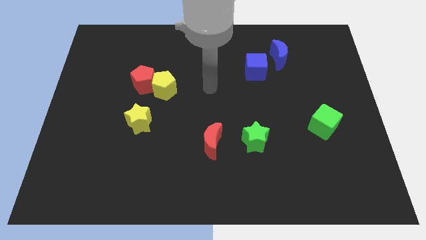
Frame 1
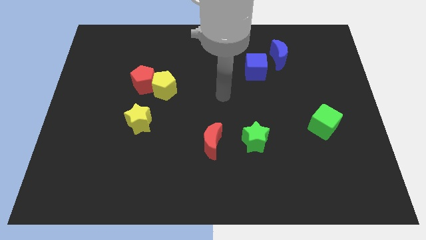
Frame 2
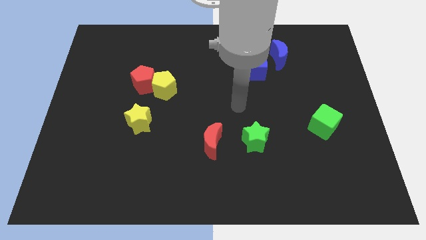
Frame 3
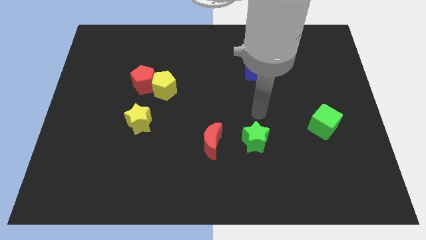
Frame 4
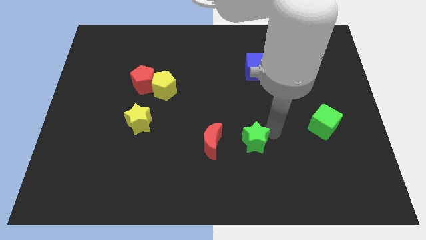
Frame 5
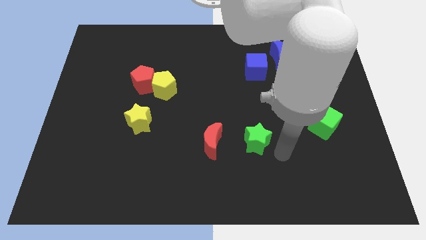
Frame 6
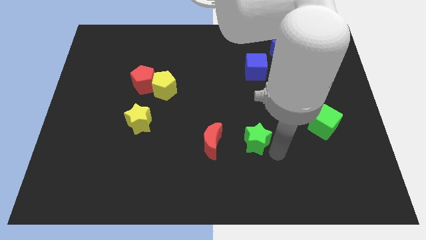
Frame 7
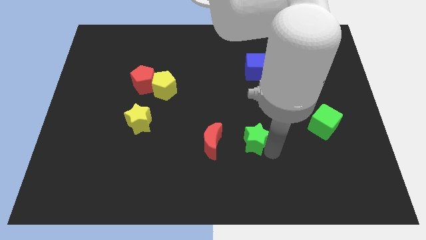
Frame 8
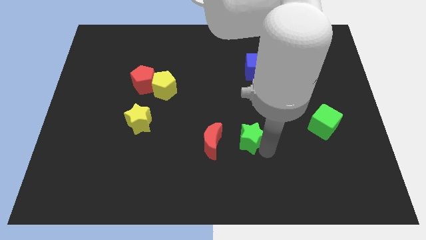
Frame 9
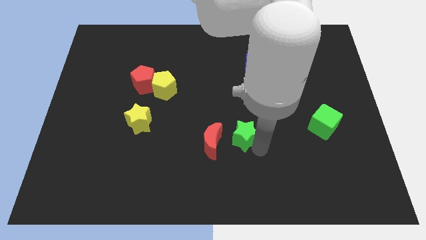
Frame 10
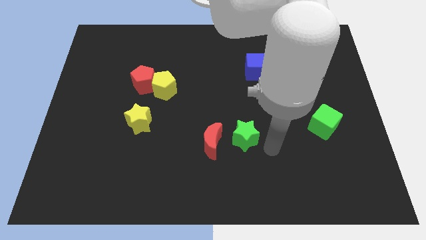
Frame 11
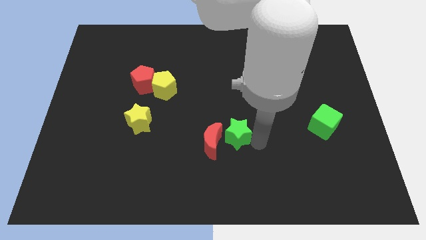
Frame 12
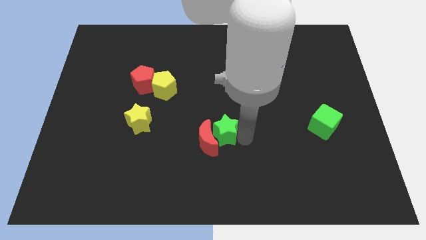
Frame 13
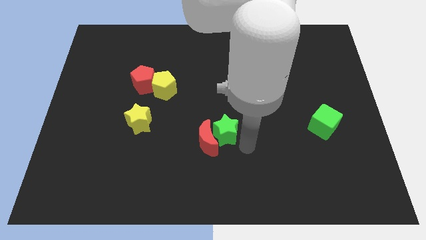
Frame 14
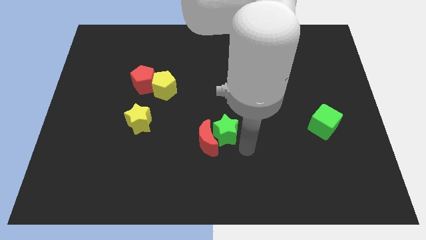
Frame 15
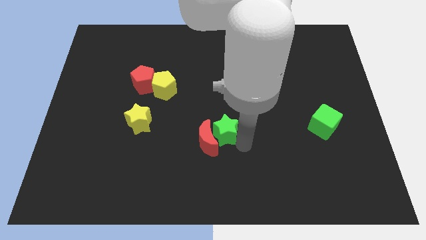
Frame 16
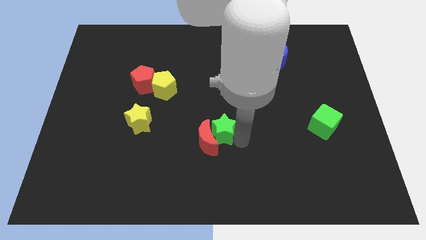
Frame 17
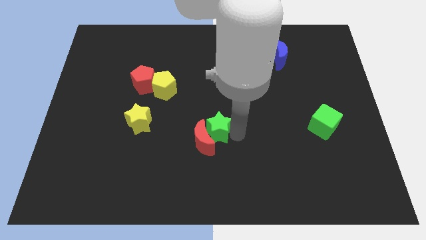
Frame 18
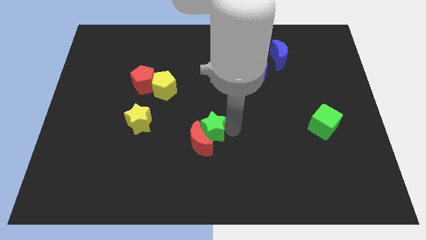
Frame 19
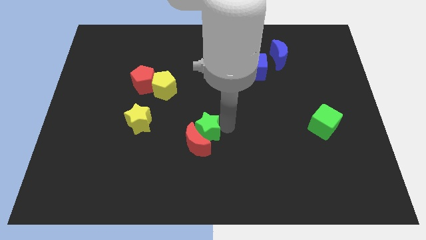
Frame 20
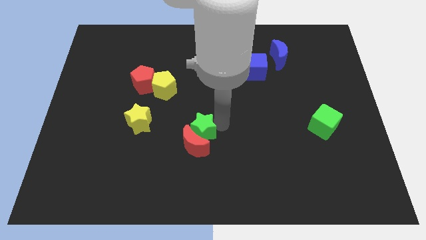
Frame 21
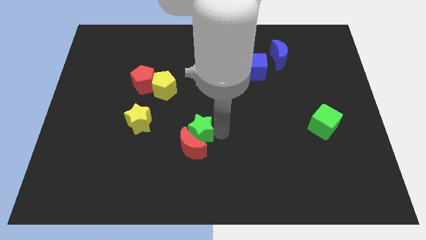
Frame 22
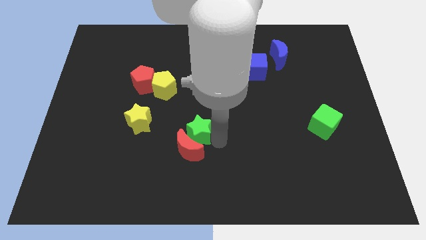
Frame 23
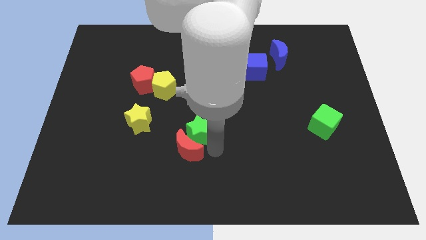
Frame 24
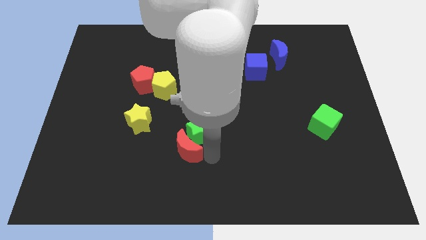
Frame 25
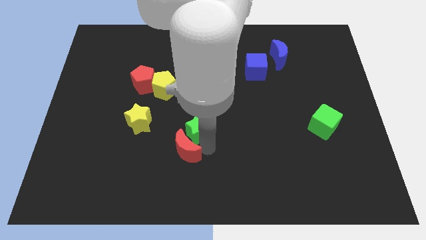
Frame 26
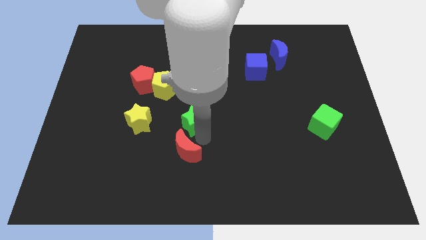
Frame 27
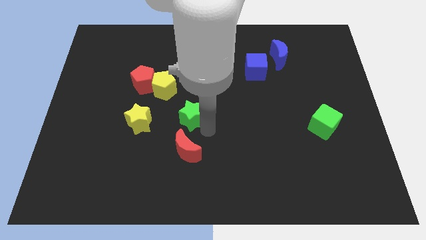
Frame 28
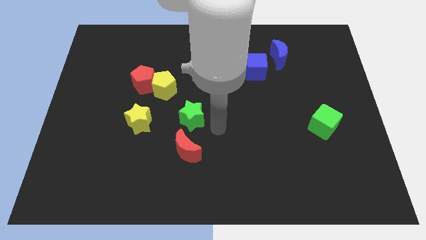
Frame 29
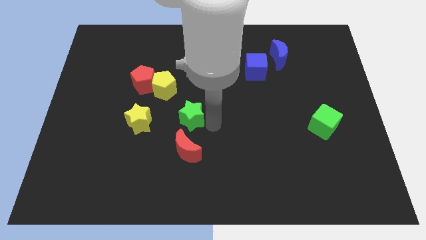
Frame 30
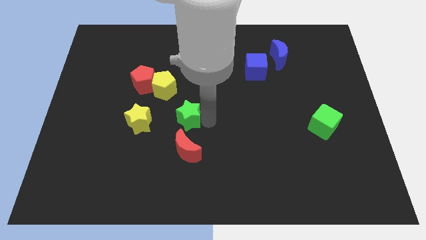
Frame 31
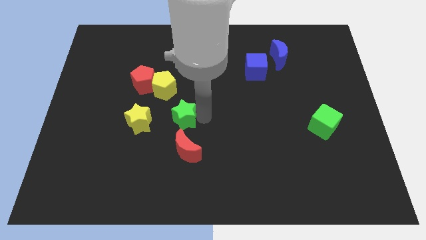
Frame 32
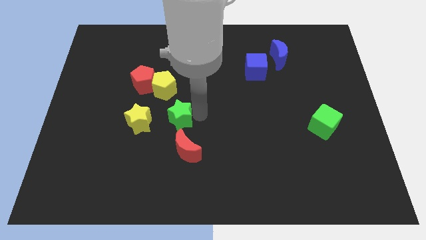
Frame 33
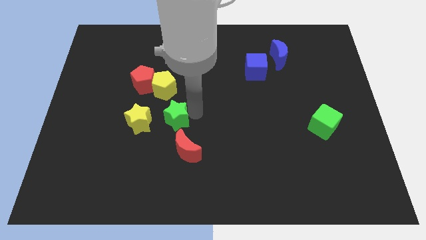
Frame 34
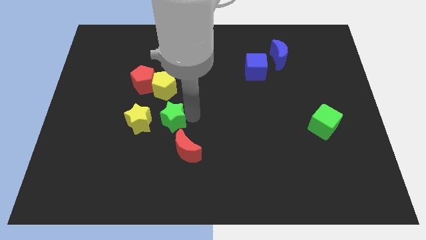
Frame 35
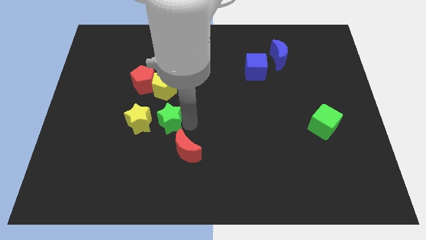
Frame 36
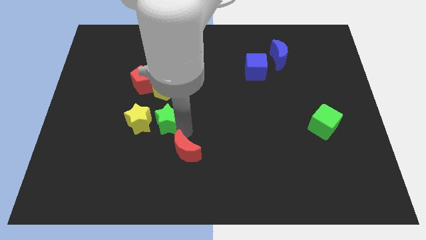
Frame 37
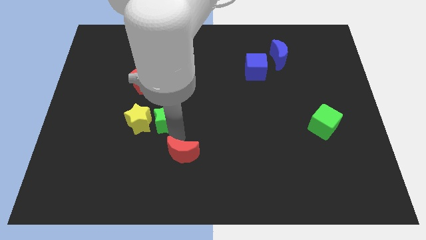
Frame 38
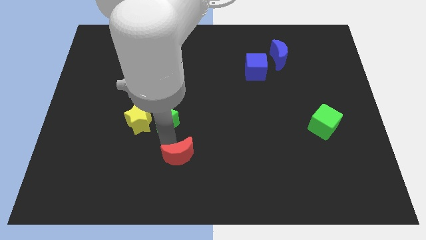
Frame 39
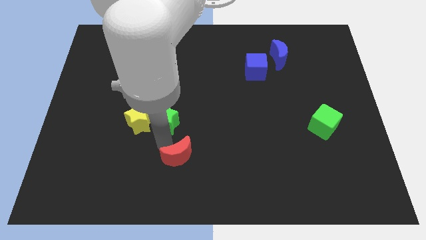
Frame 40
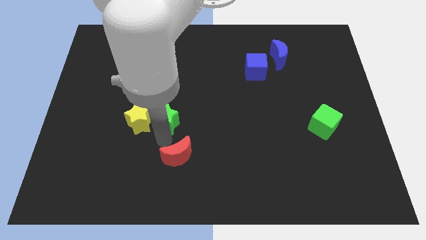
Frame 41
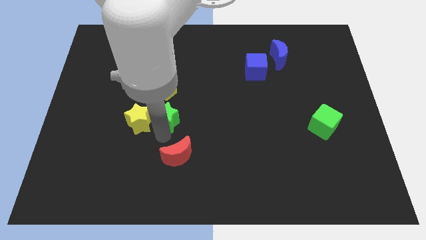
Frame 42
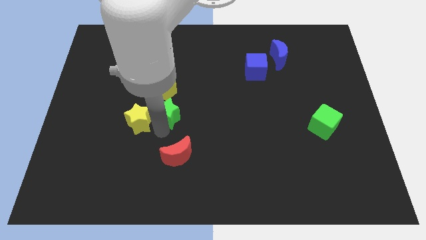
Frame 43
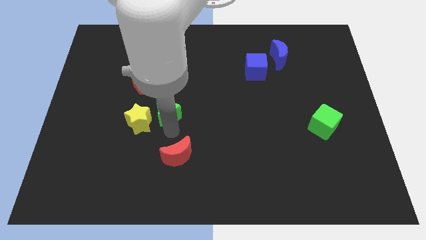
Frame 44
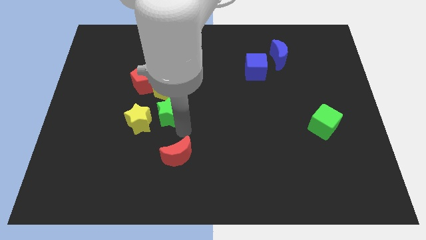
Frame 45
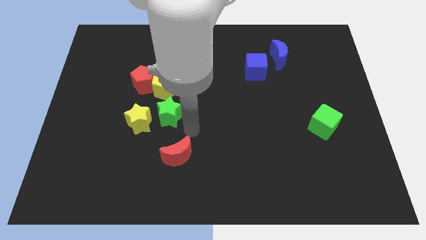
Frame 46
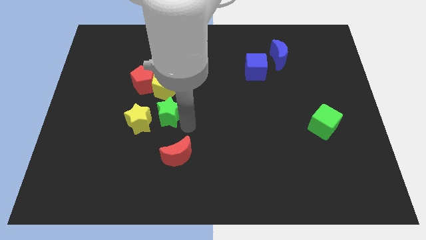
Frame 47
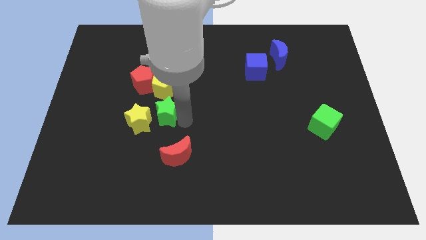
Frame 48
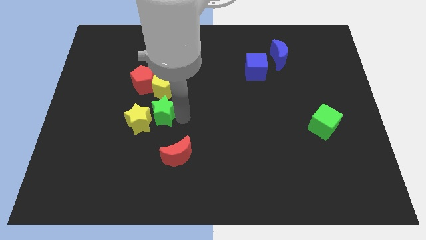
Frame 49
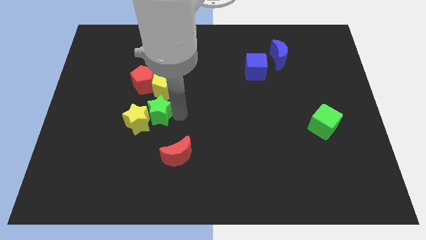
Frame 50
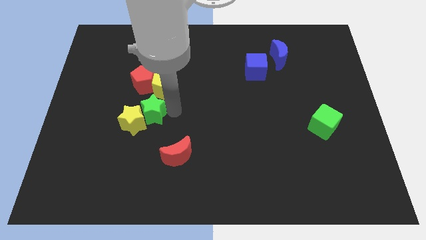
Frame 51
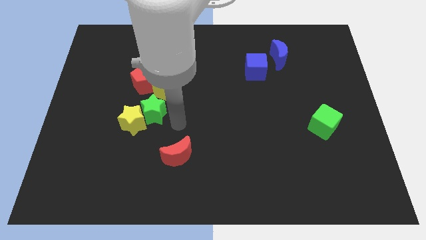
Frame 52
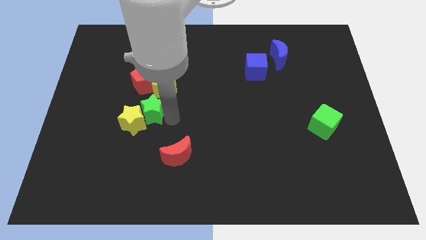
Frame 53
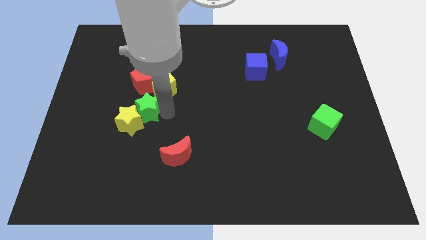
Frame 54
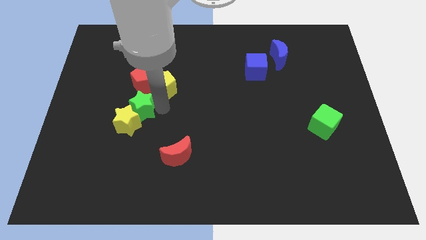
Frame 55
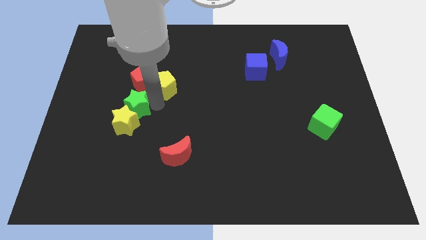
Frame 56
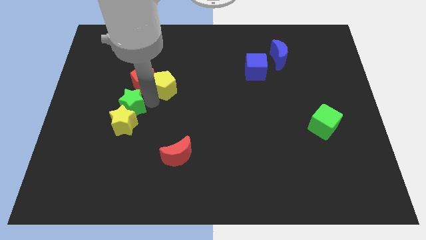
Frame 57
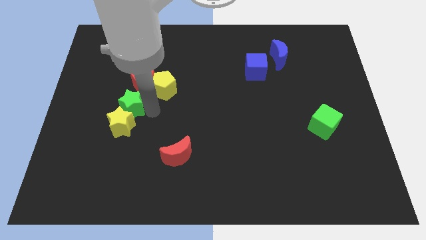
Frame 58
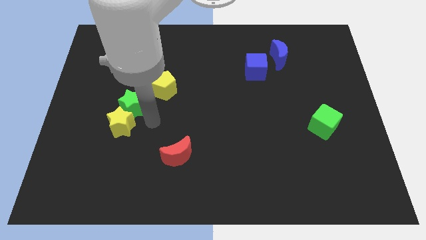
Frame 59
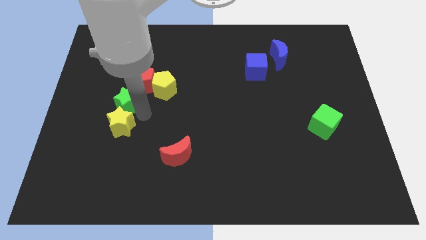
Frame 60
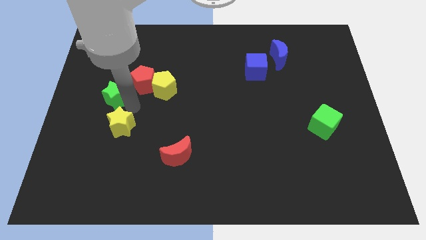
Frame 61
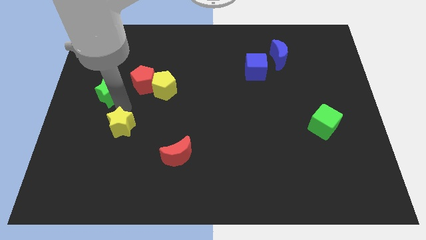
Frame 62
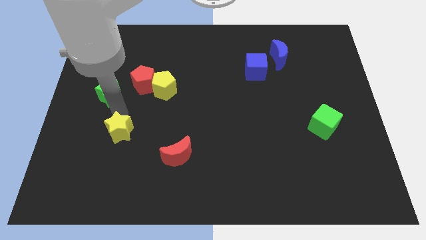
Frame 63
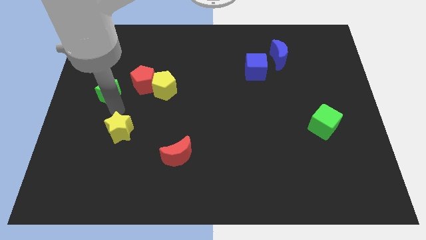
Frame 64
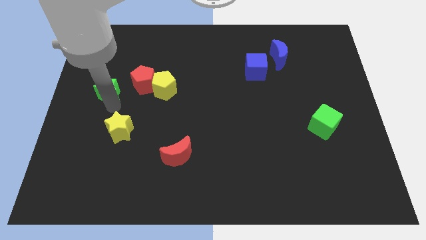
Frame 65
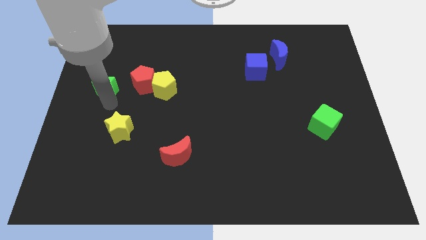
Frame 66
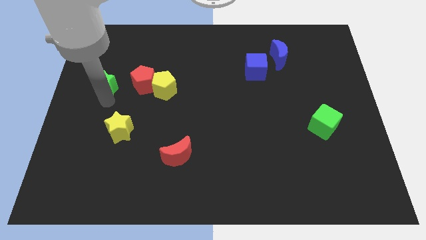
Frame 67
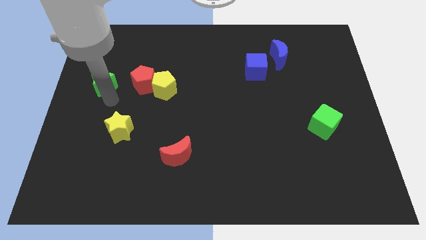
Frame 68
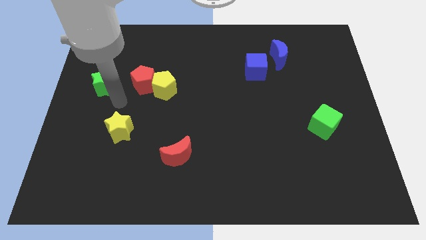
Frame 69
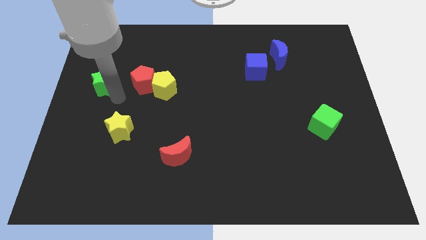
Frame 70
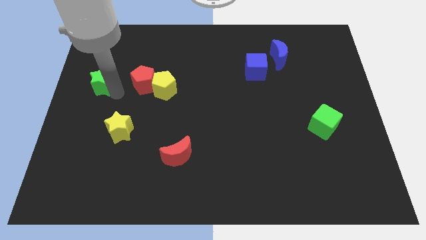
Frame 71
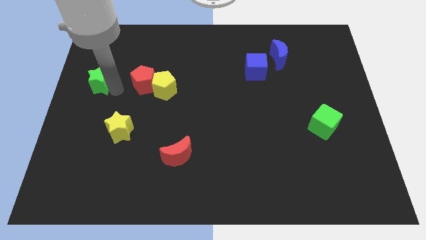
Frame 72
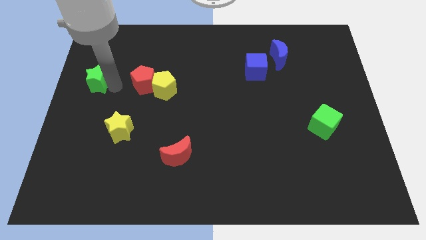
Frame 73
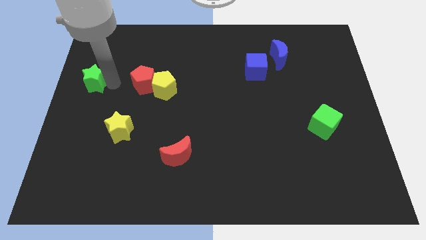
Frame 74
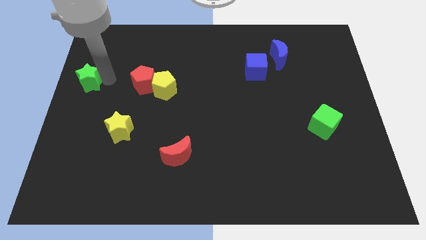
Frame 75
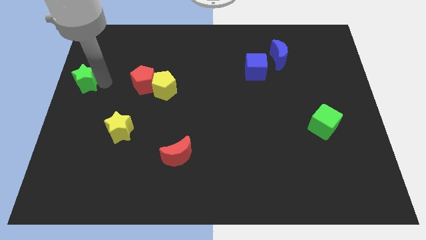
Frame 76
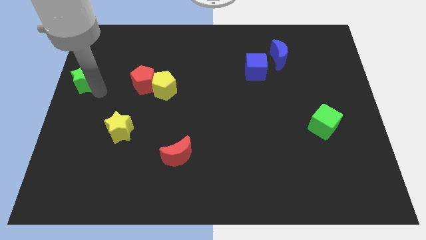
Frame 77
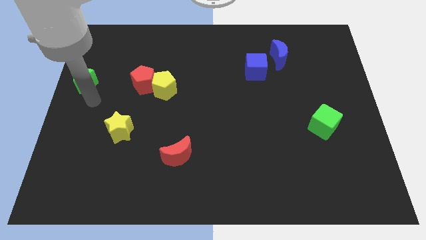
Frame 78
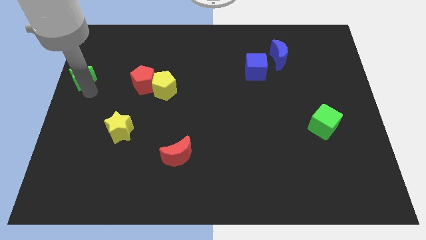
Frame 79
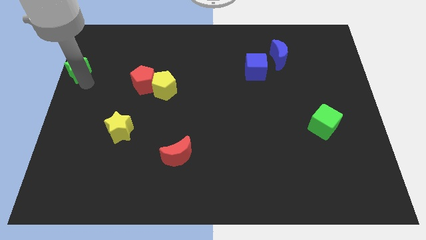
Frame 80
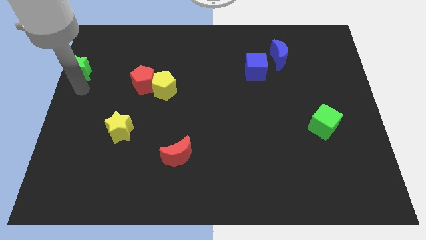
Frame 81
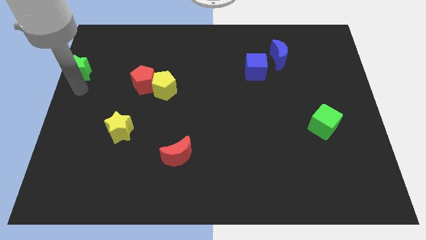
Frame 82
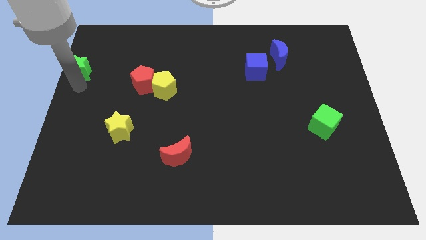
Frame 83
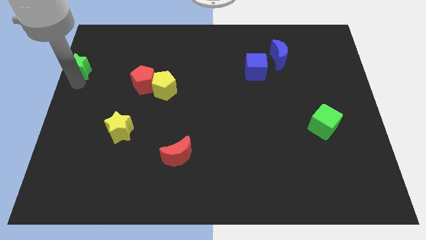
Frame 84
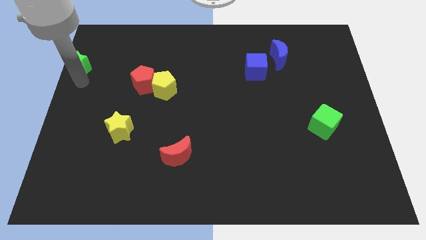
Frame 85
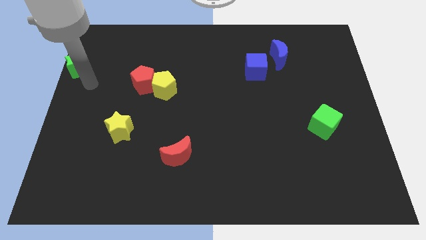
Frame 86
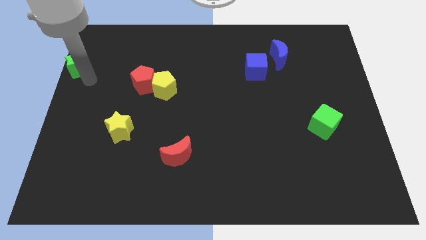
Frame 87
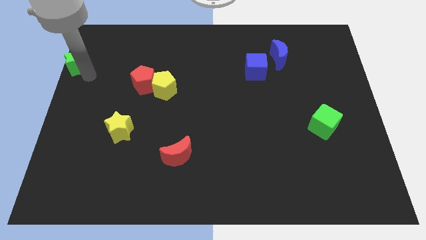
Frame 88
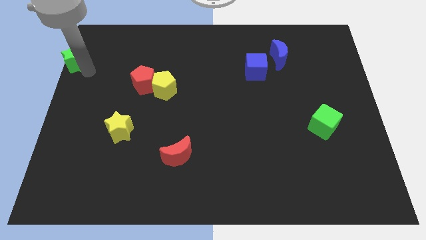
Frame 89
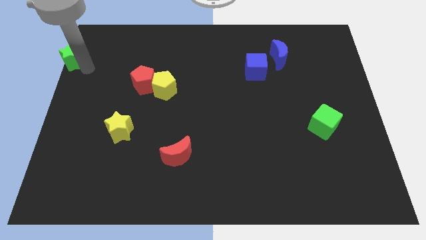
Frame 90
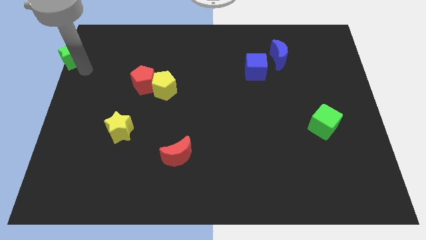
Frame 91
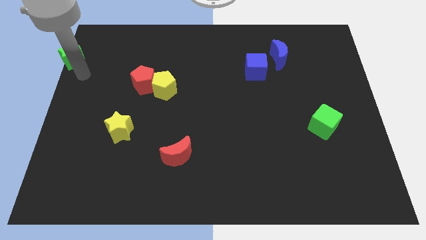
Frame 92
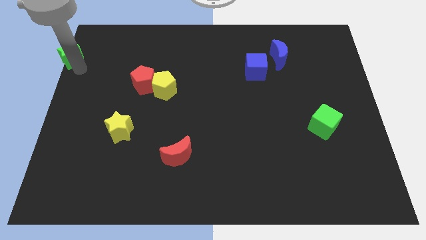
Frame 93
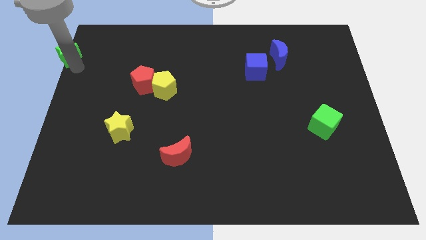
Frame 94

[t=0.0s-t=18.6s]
put the green star to the top left corner
